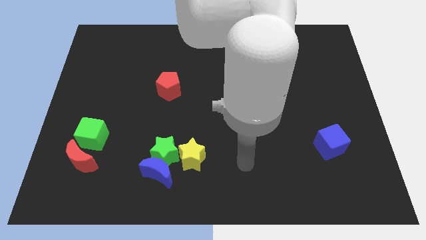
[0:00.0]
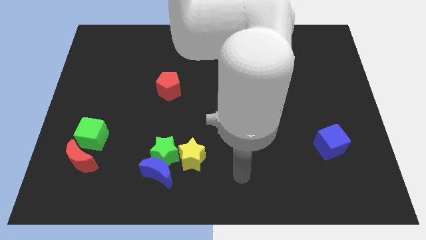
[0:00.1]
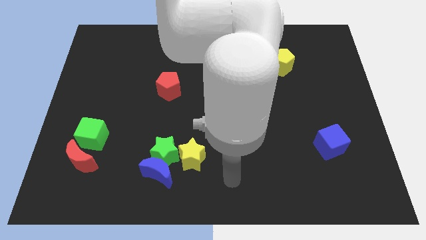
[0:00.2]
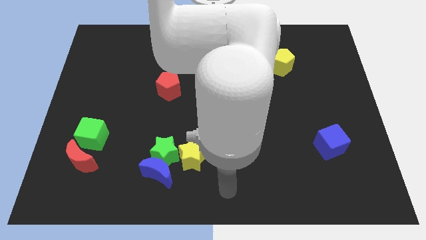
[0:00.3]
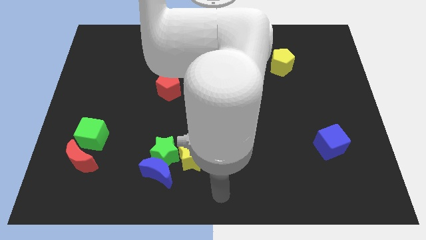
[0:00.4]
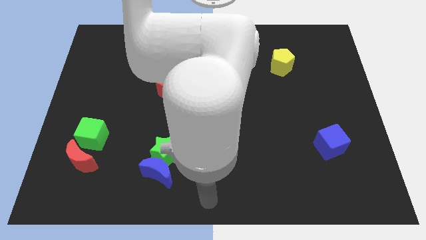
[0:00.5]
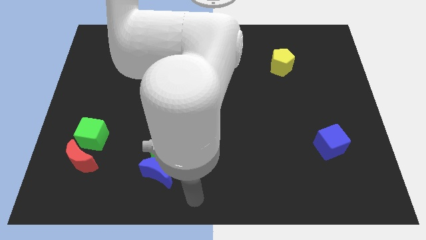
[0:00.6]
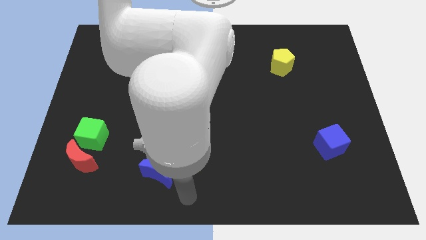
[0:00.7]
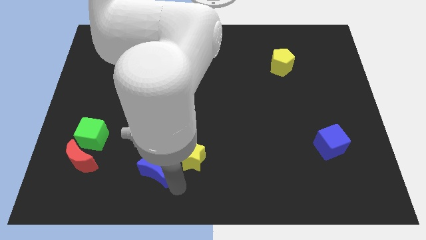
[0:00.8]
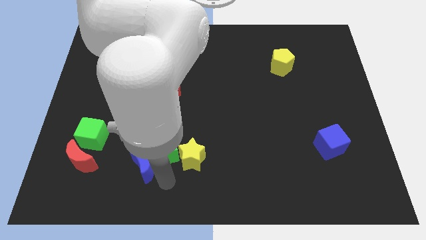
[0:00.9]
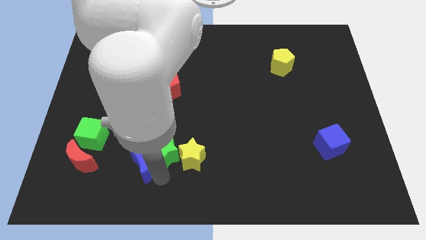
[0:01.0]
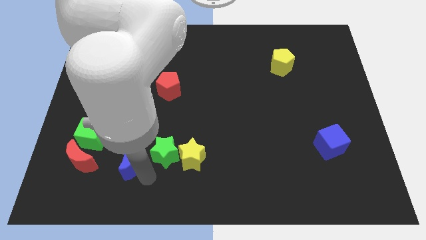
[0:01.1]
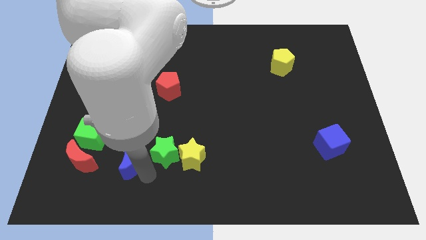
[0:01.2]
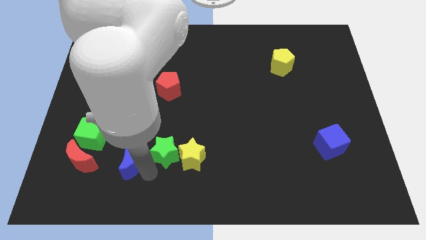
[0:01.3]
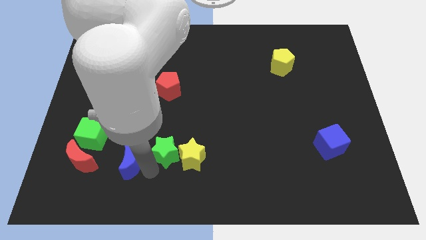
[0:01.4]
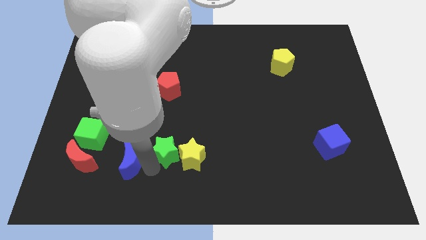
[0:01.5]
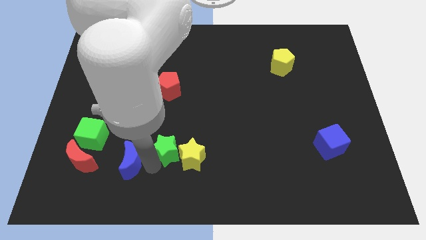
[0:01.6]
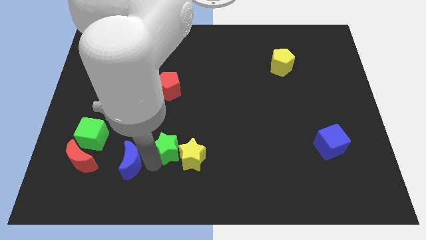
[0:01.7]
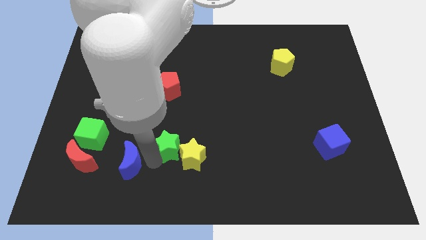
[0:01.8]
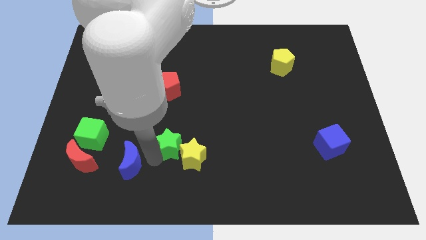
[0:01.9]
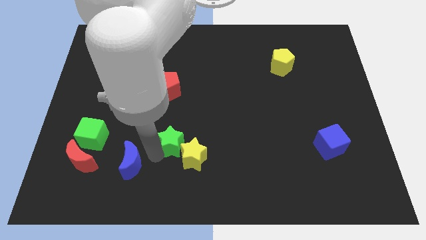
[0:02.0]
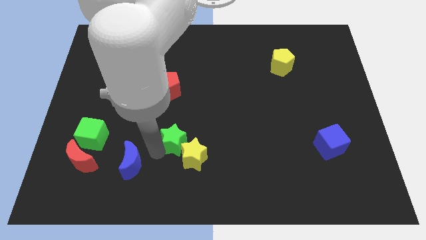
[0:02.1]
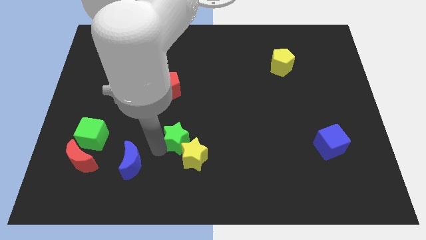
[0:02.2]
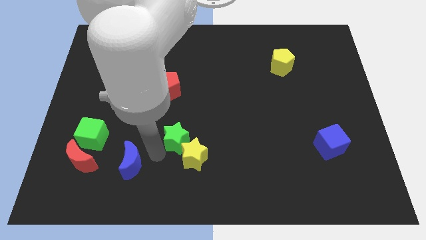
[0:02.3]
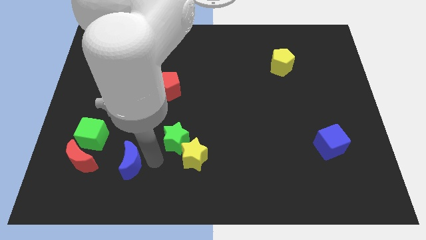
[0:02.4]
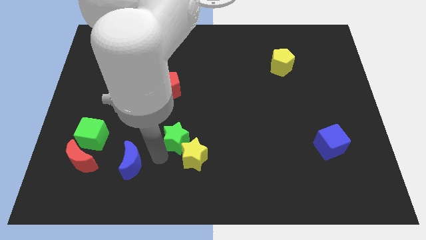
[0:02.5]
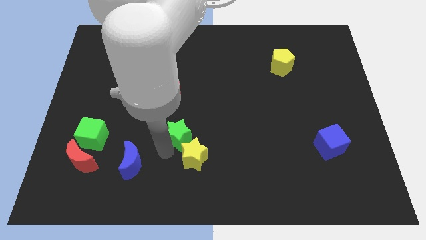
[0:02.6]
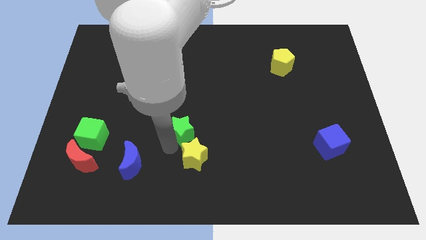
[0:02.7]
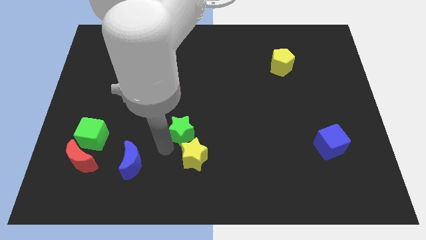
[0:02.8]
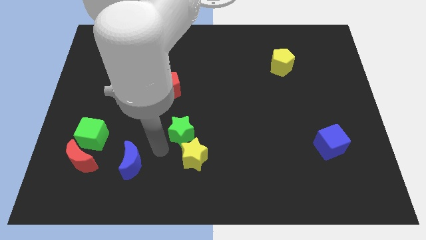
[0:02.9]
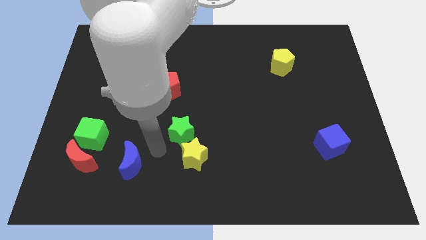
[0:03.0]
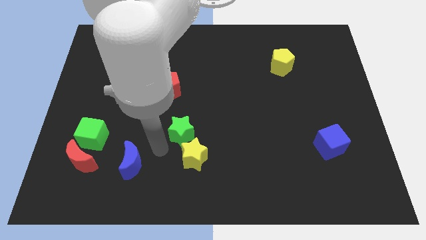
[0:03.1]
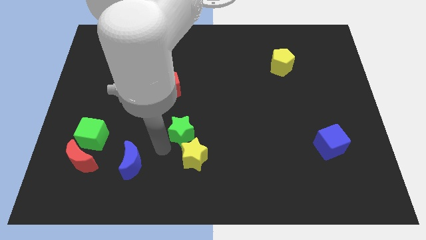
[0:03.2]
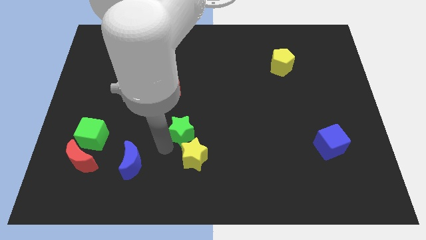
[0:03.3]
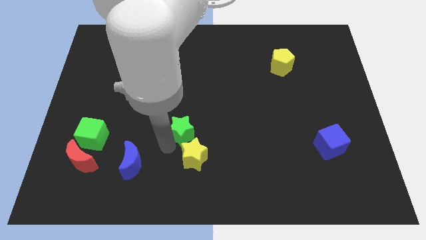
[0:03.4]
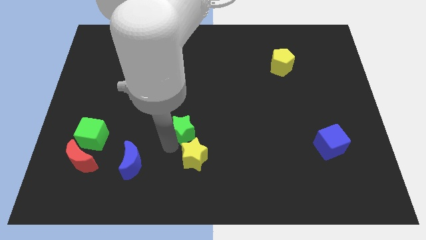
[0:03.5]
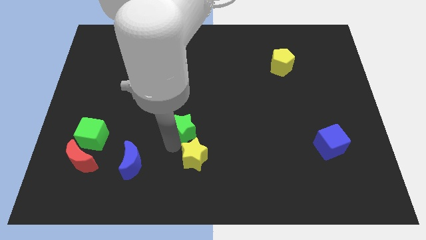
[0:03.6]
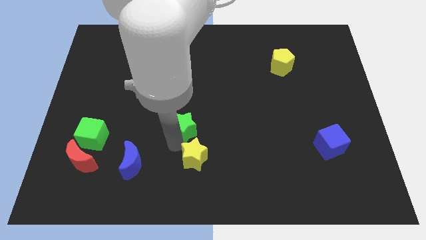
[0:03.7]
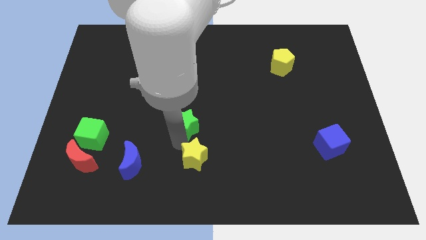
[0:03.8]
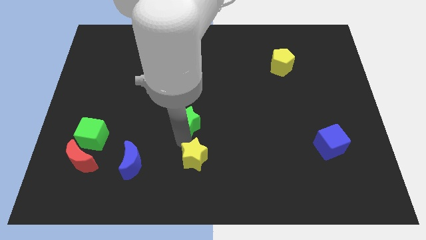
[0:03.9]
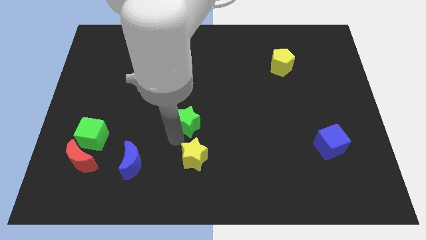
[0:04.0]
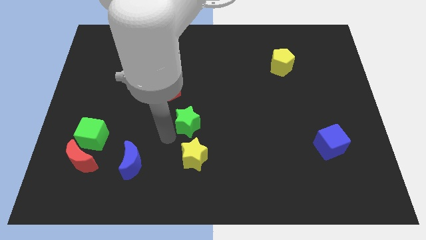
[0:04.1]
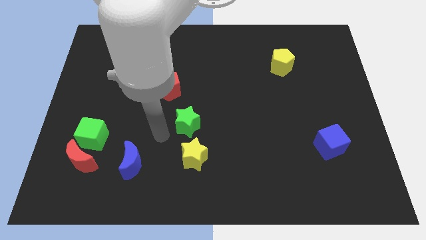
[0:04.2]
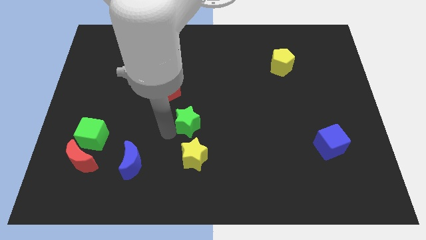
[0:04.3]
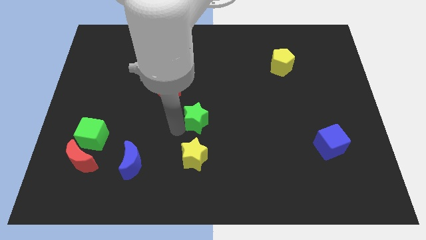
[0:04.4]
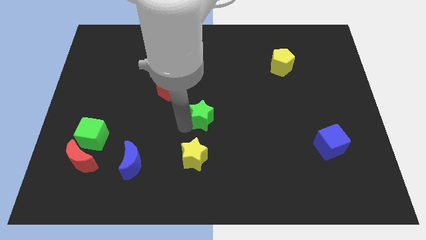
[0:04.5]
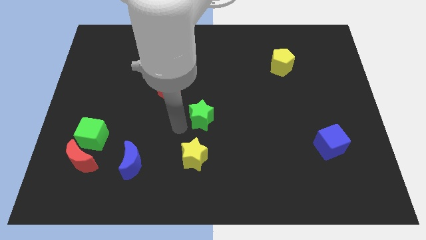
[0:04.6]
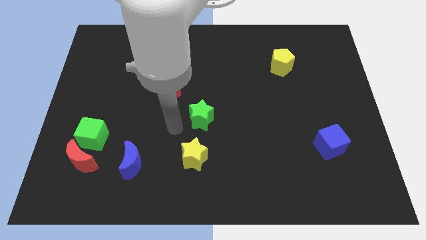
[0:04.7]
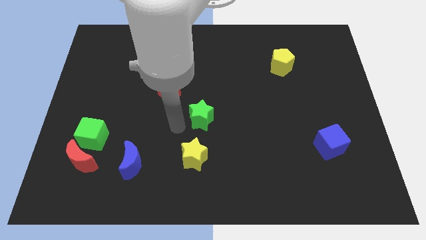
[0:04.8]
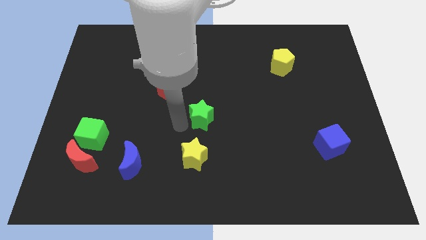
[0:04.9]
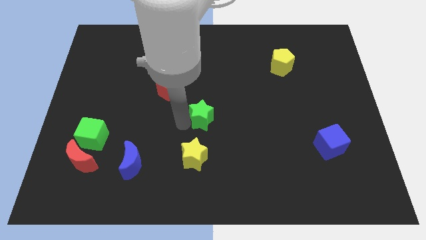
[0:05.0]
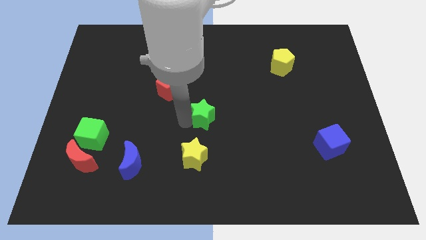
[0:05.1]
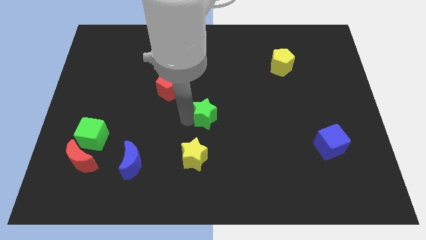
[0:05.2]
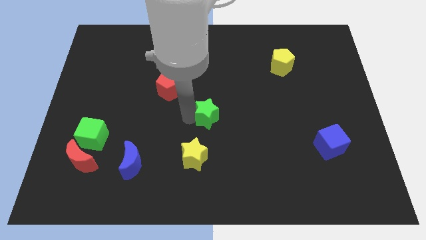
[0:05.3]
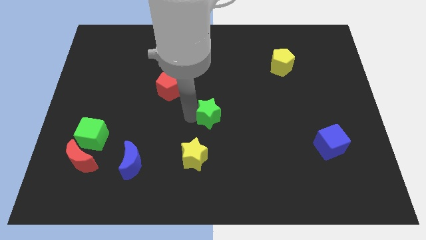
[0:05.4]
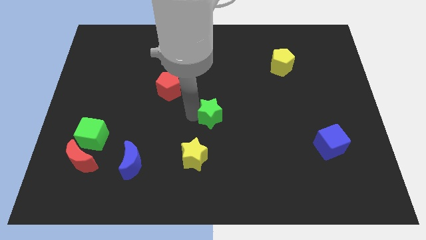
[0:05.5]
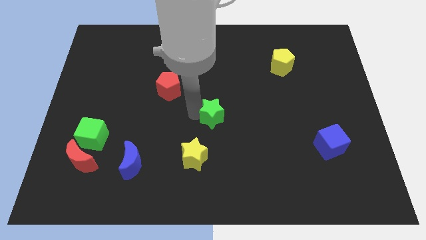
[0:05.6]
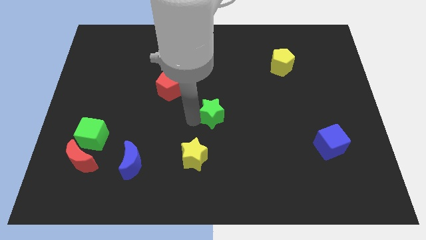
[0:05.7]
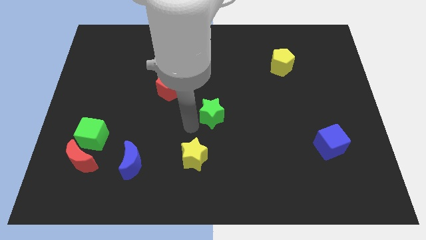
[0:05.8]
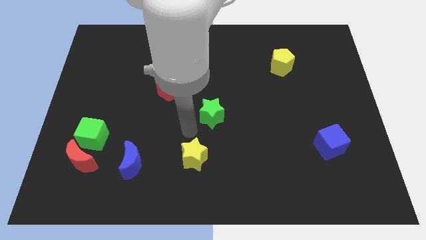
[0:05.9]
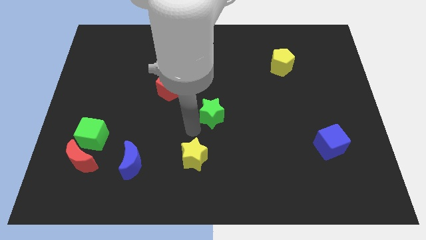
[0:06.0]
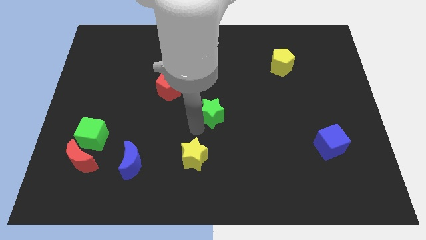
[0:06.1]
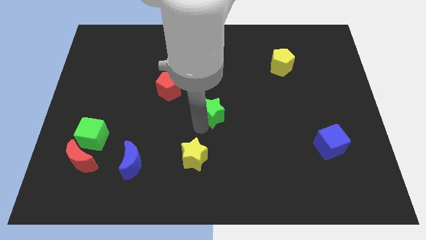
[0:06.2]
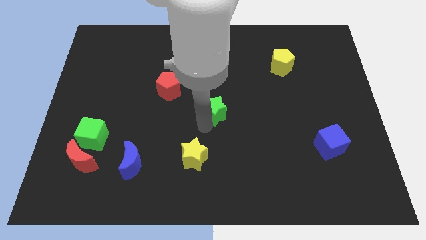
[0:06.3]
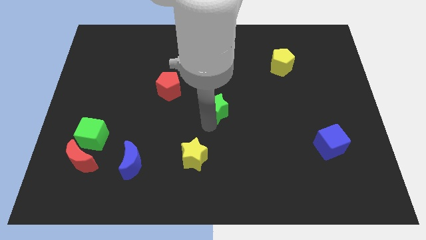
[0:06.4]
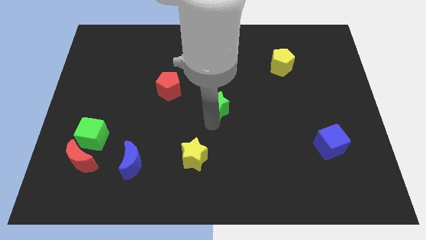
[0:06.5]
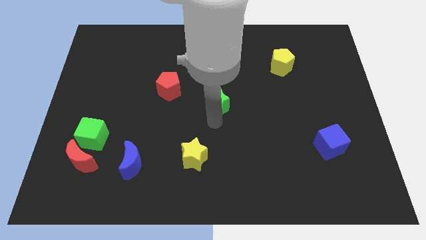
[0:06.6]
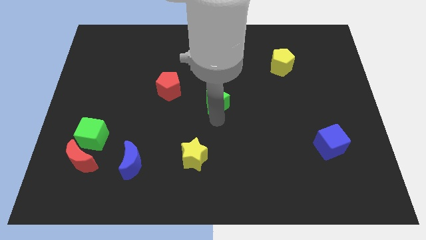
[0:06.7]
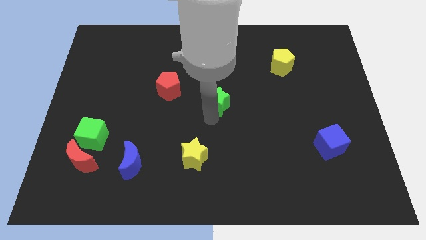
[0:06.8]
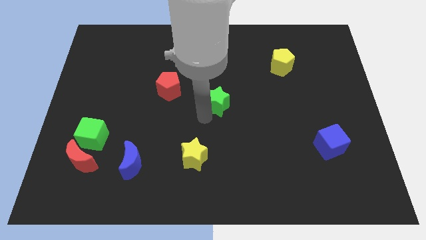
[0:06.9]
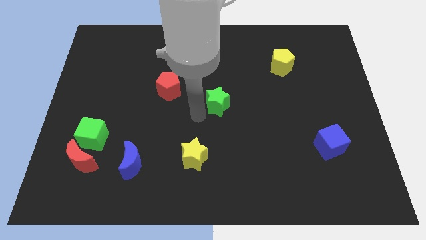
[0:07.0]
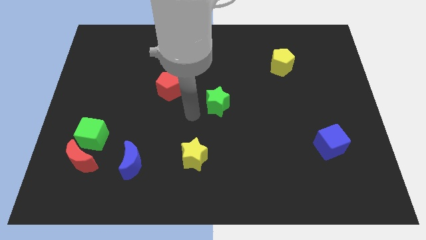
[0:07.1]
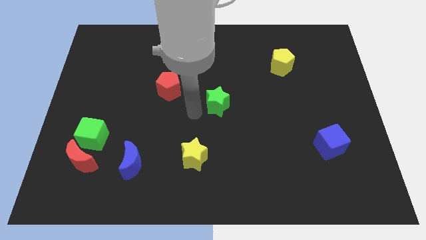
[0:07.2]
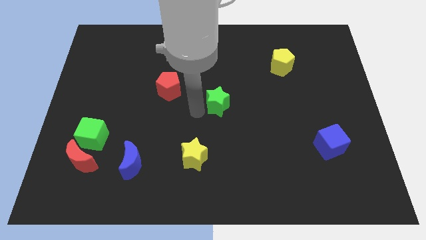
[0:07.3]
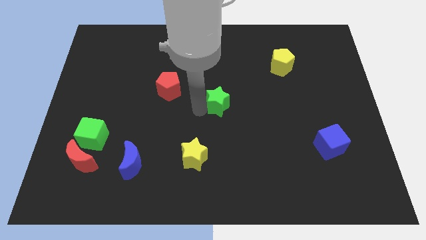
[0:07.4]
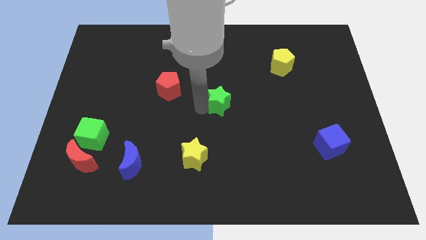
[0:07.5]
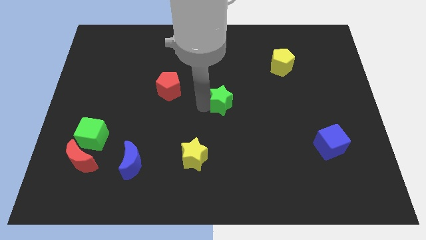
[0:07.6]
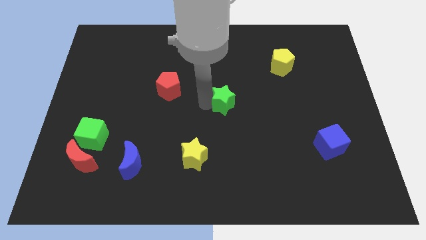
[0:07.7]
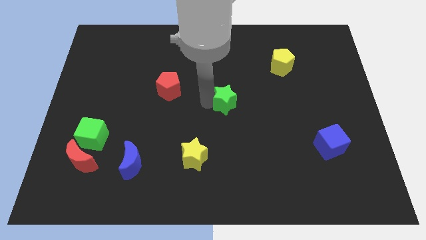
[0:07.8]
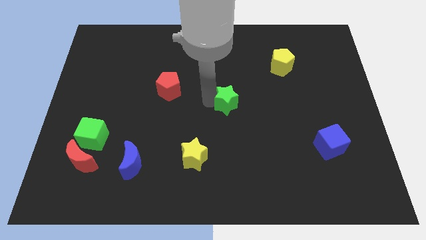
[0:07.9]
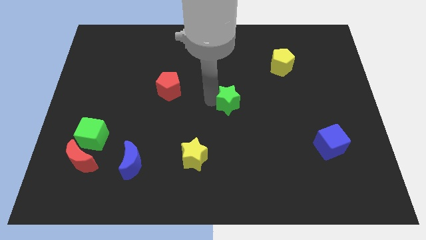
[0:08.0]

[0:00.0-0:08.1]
move the green star upwards and right

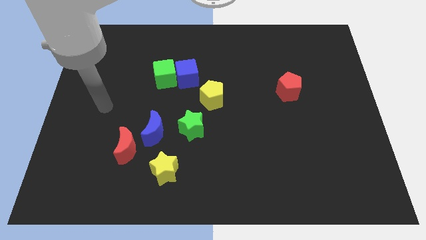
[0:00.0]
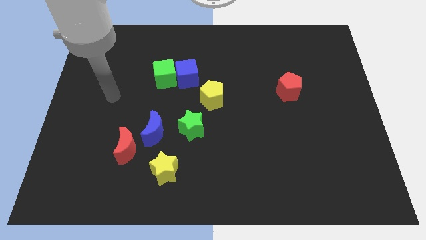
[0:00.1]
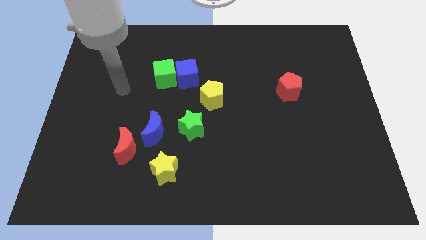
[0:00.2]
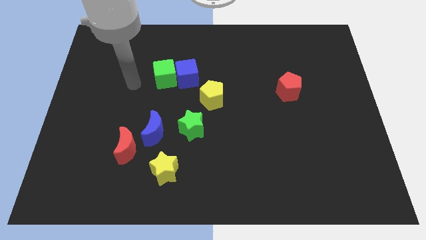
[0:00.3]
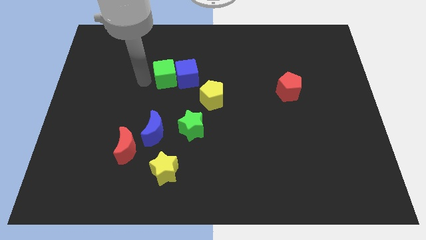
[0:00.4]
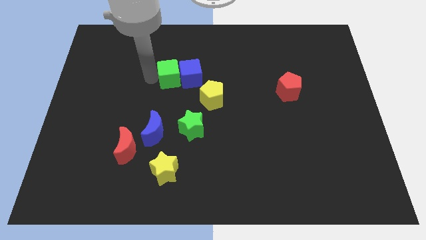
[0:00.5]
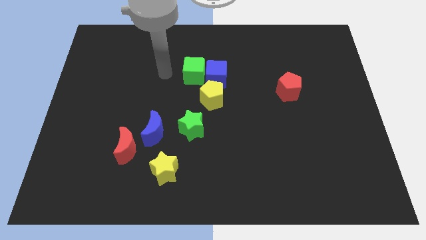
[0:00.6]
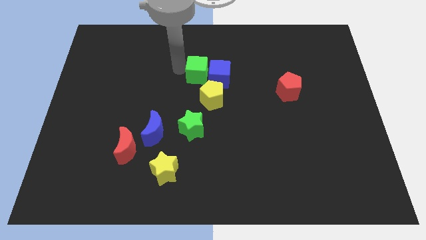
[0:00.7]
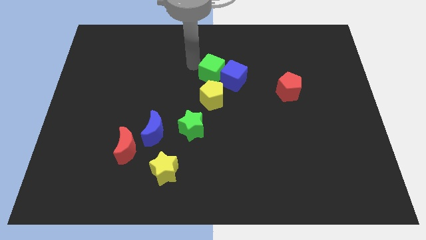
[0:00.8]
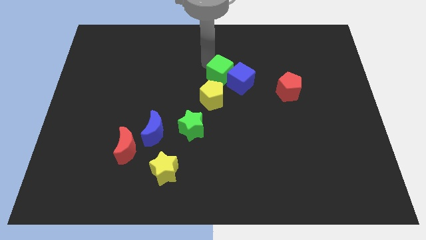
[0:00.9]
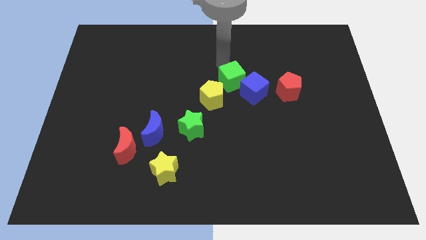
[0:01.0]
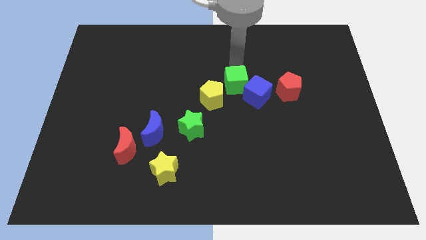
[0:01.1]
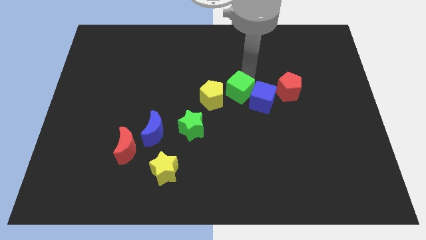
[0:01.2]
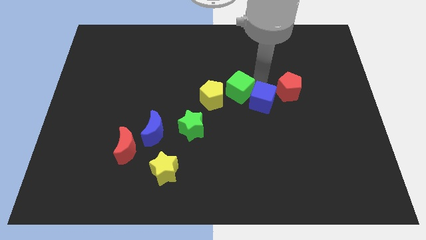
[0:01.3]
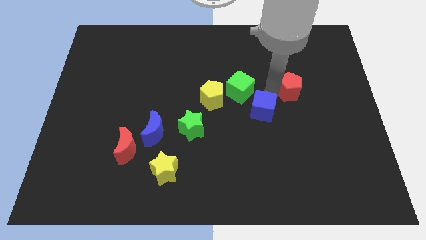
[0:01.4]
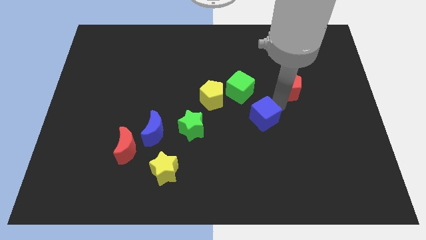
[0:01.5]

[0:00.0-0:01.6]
move the blue cube down and then right
